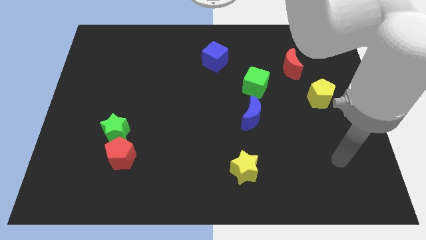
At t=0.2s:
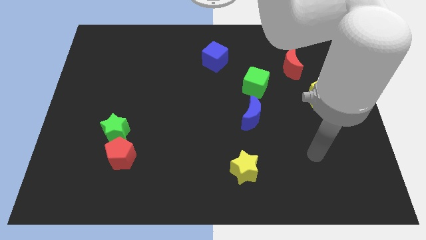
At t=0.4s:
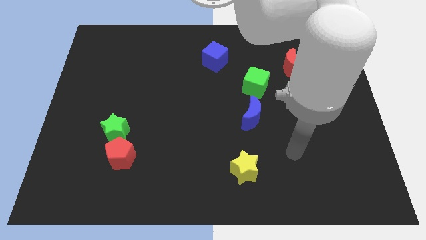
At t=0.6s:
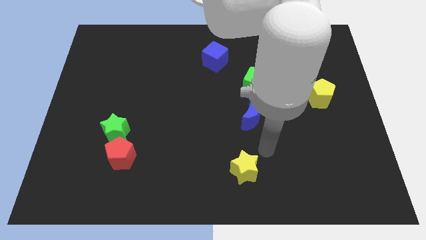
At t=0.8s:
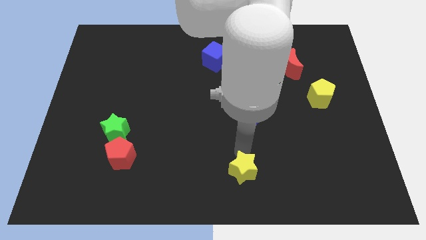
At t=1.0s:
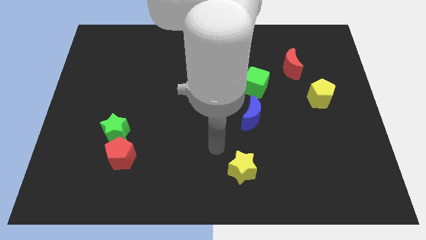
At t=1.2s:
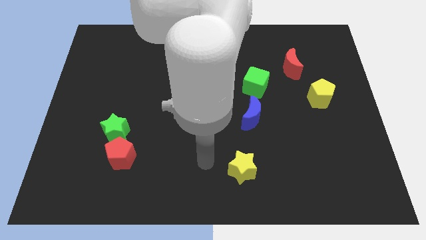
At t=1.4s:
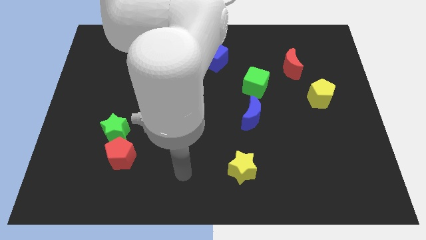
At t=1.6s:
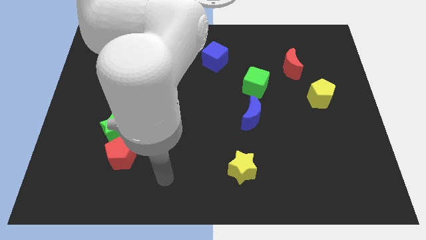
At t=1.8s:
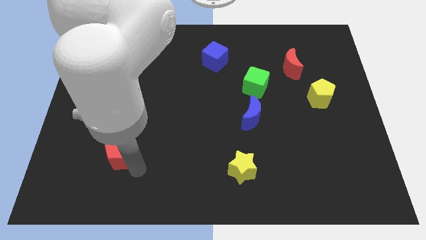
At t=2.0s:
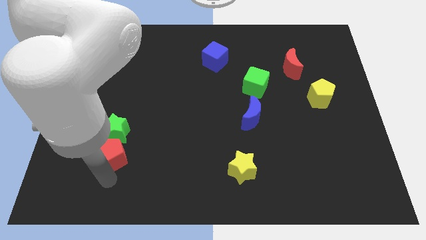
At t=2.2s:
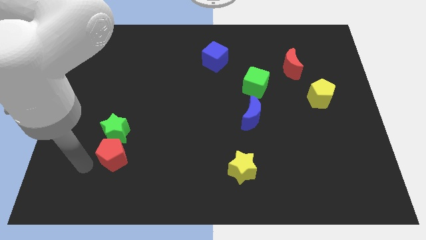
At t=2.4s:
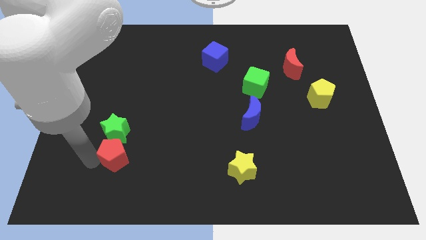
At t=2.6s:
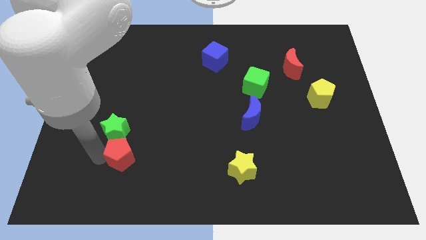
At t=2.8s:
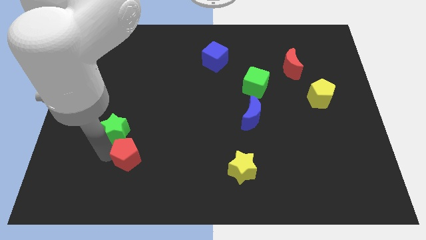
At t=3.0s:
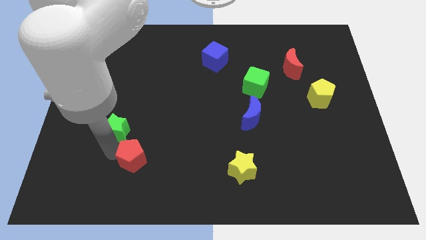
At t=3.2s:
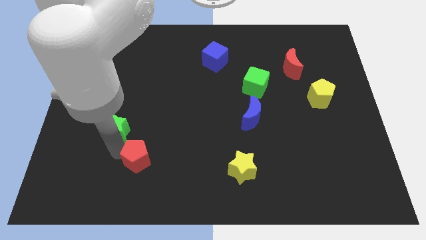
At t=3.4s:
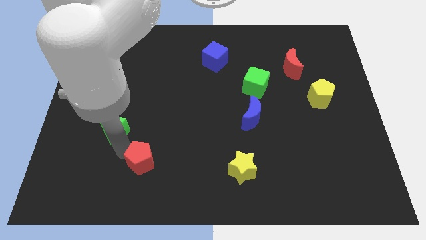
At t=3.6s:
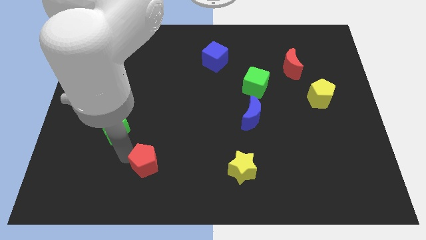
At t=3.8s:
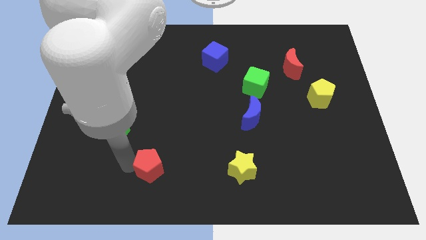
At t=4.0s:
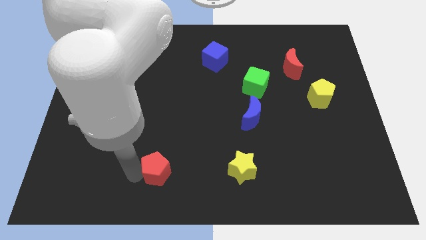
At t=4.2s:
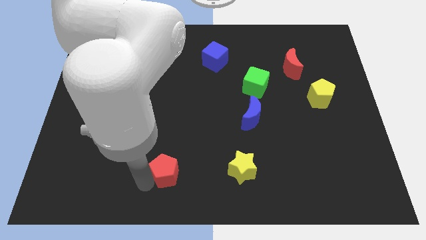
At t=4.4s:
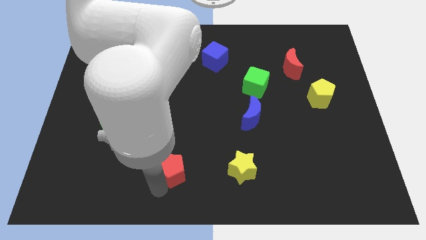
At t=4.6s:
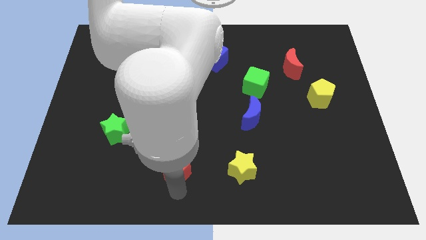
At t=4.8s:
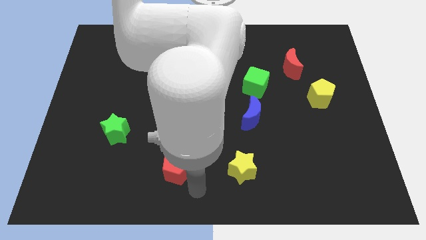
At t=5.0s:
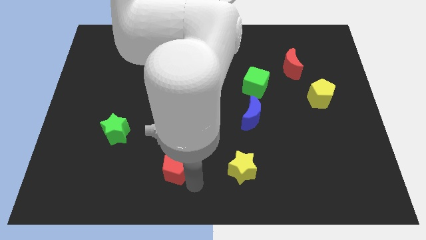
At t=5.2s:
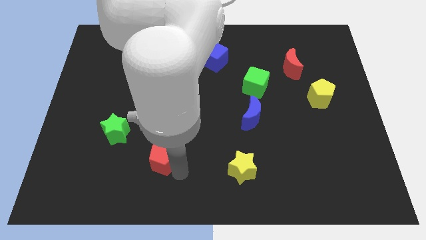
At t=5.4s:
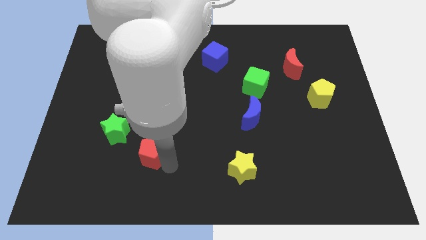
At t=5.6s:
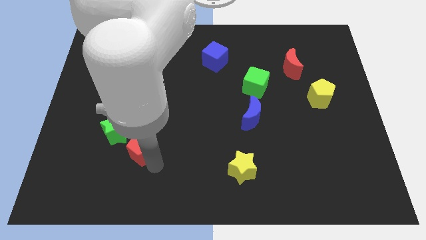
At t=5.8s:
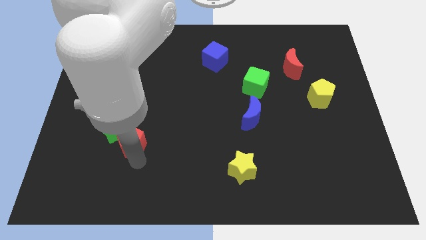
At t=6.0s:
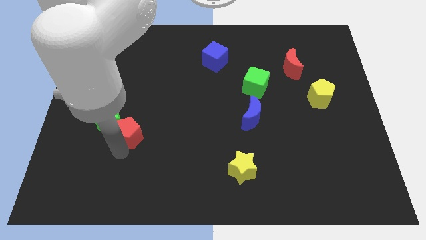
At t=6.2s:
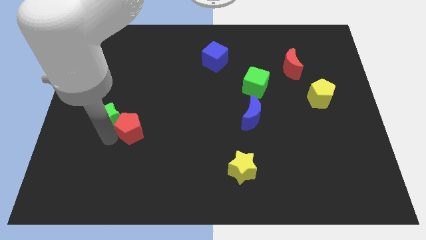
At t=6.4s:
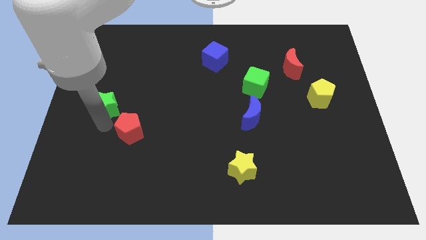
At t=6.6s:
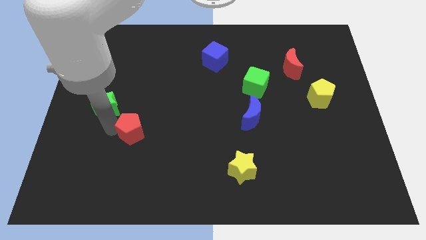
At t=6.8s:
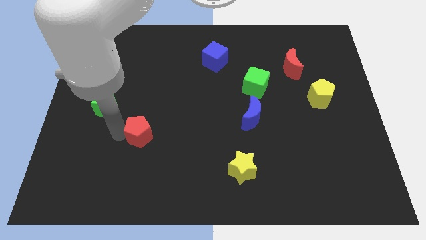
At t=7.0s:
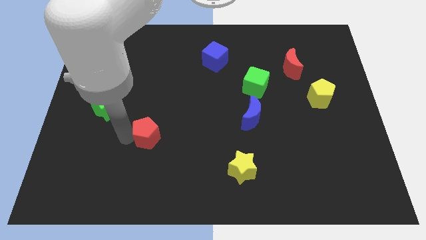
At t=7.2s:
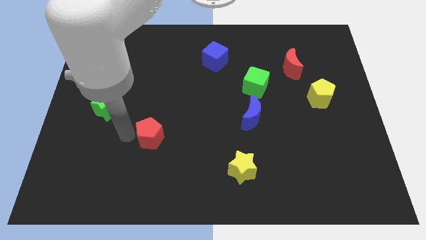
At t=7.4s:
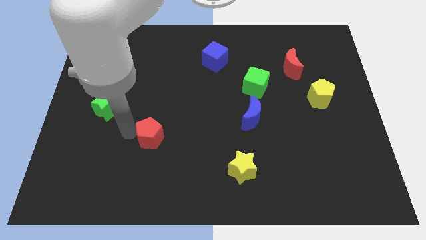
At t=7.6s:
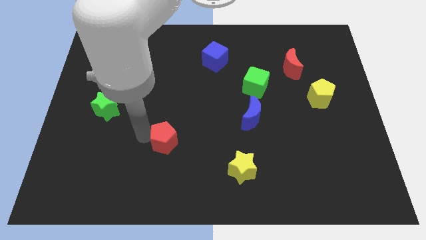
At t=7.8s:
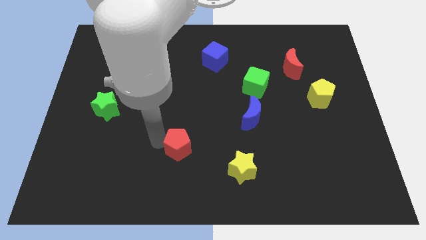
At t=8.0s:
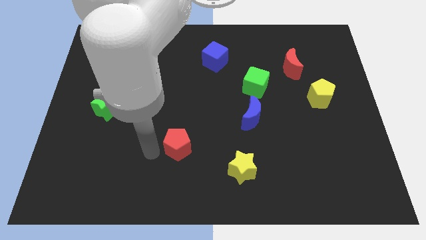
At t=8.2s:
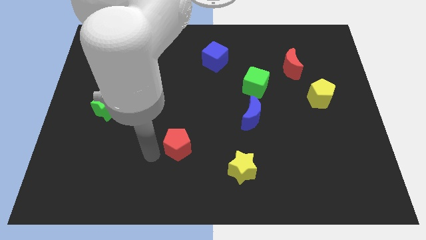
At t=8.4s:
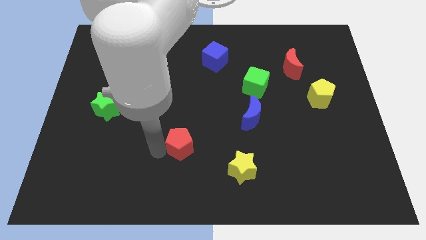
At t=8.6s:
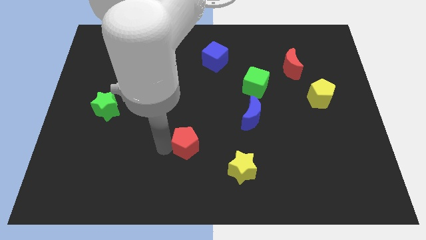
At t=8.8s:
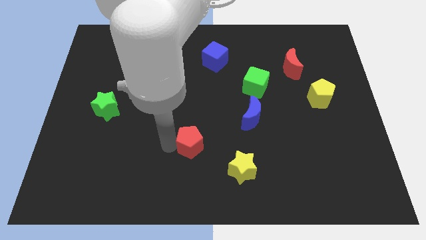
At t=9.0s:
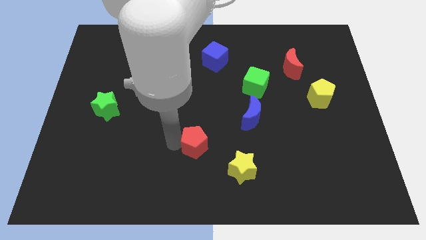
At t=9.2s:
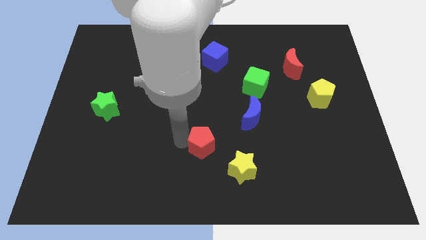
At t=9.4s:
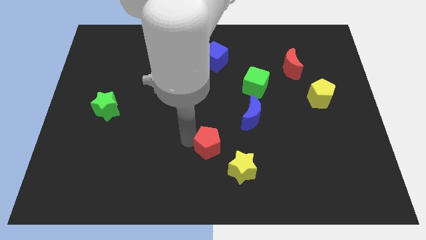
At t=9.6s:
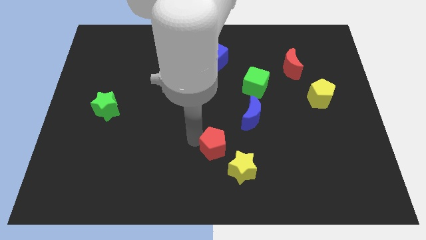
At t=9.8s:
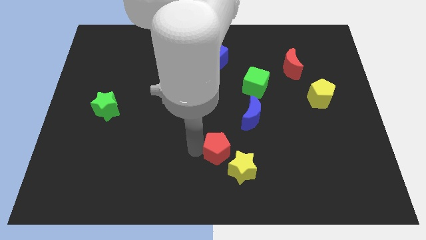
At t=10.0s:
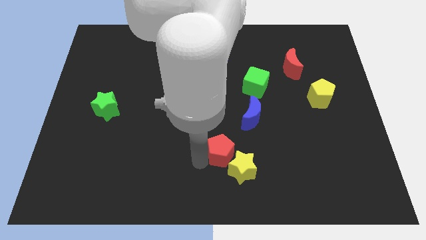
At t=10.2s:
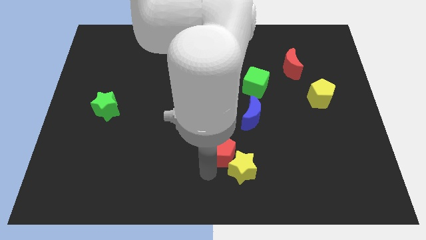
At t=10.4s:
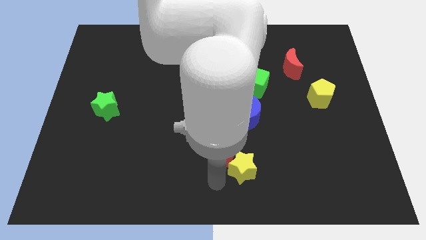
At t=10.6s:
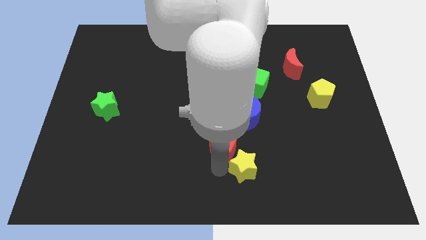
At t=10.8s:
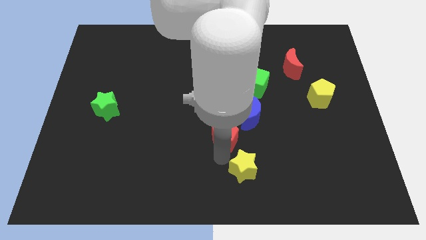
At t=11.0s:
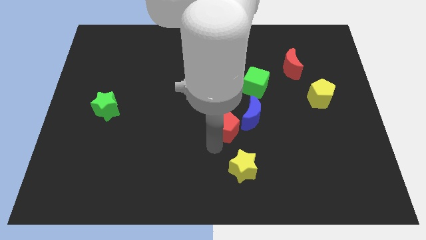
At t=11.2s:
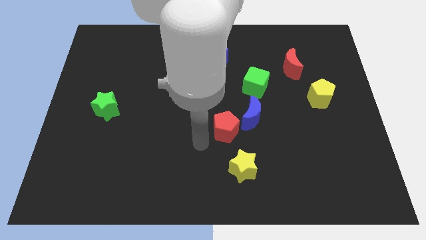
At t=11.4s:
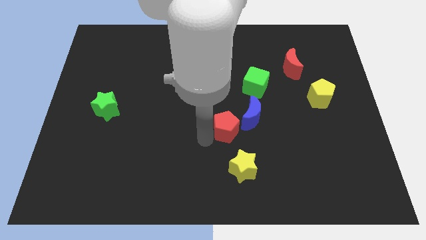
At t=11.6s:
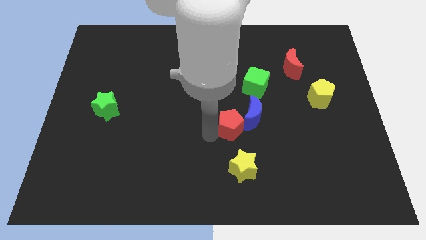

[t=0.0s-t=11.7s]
push the red pentagon next to the blue moon

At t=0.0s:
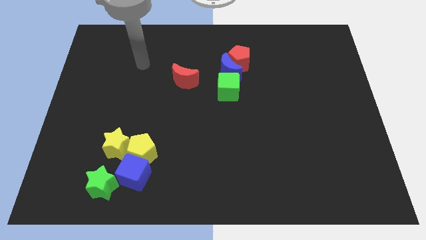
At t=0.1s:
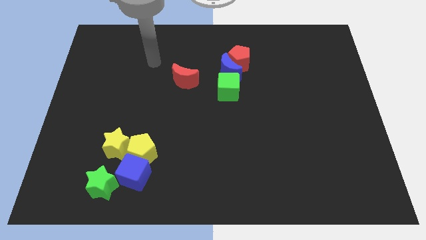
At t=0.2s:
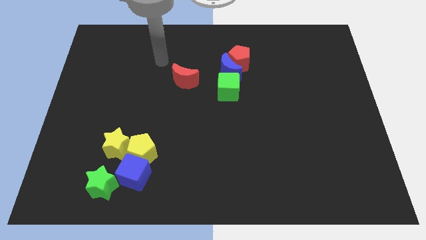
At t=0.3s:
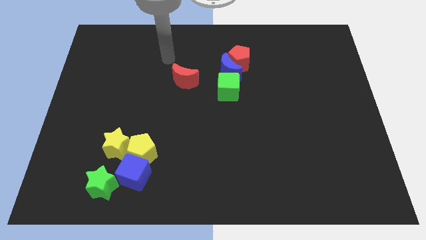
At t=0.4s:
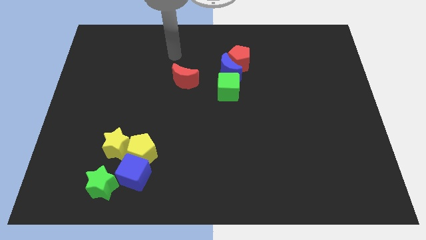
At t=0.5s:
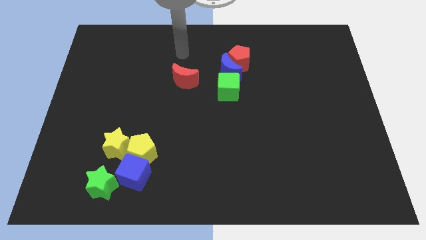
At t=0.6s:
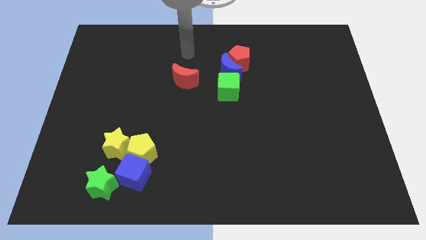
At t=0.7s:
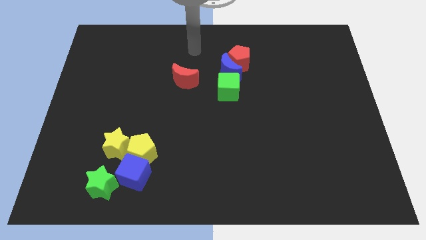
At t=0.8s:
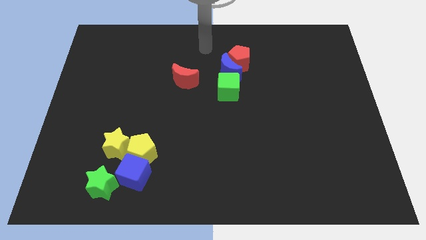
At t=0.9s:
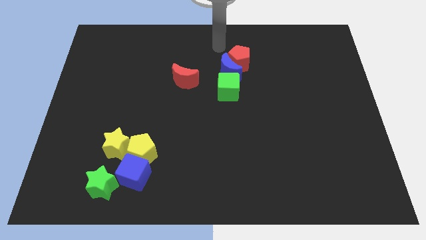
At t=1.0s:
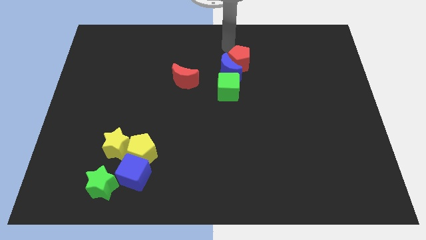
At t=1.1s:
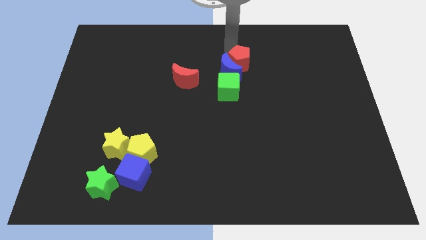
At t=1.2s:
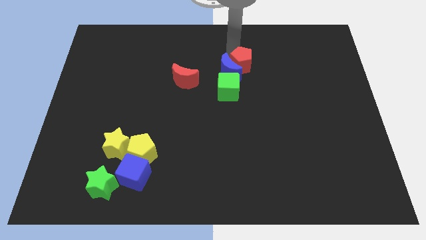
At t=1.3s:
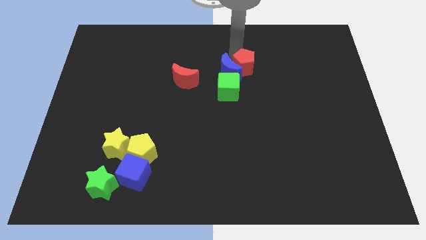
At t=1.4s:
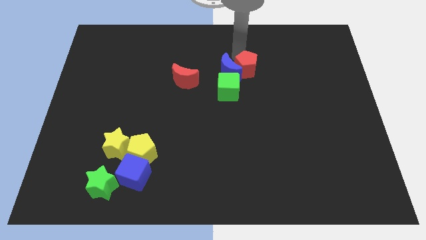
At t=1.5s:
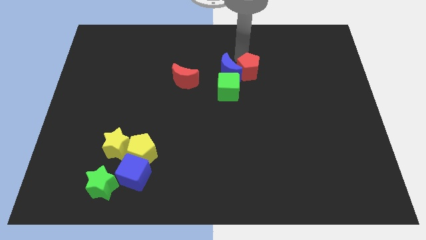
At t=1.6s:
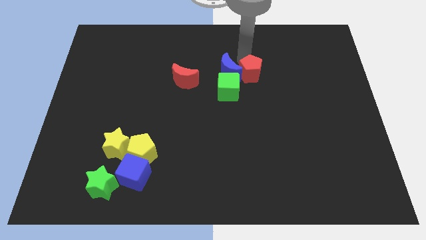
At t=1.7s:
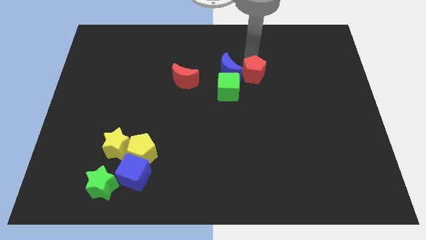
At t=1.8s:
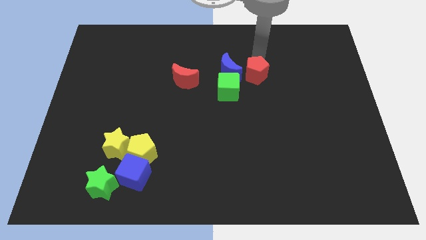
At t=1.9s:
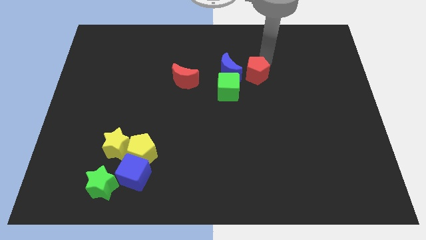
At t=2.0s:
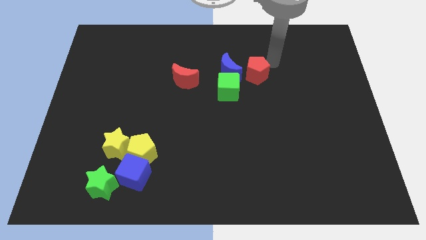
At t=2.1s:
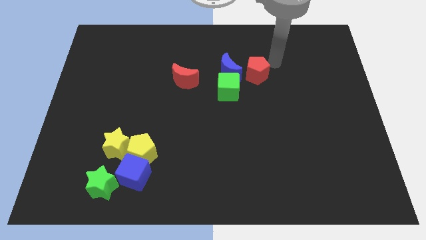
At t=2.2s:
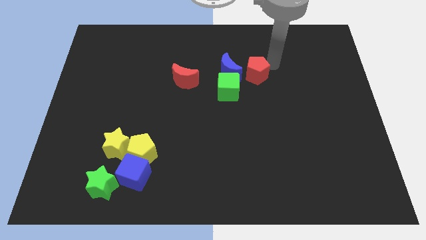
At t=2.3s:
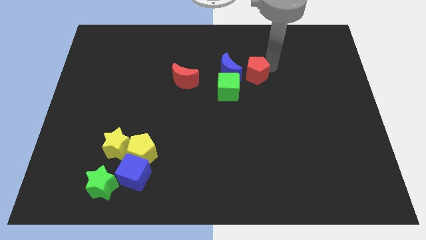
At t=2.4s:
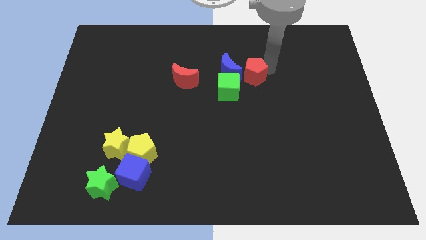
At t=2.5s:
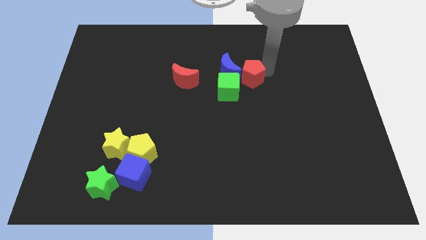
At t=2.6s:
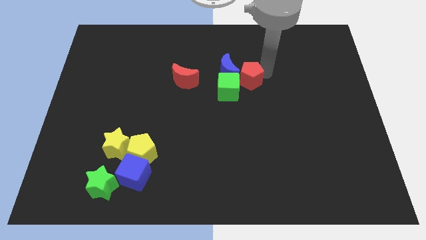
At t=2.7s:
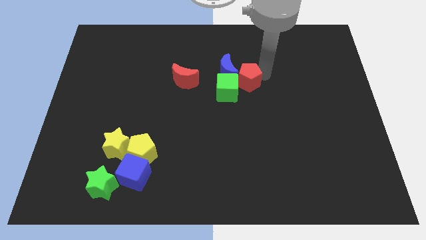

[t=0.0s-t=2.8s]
move the red pentagon to the green cube
